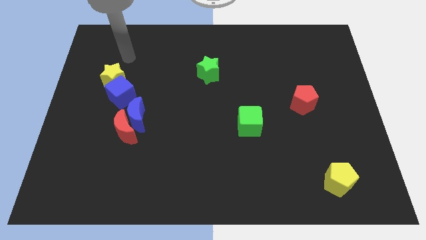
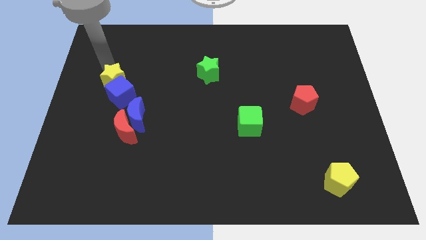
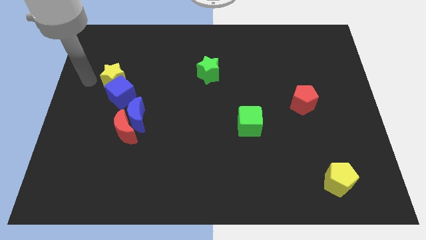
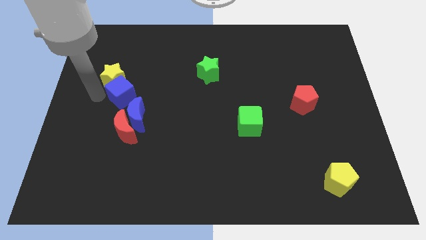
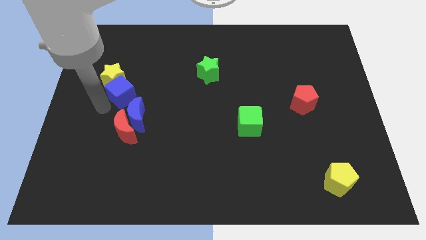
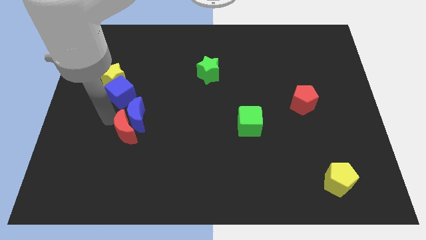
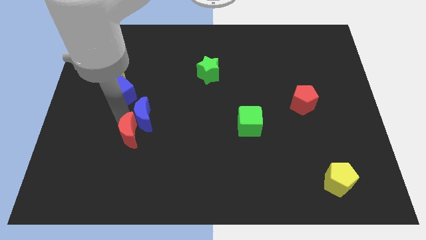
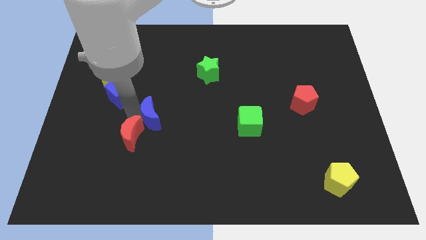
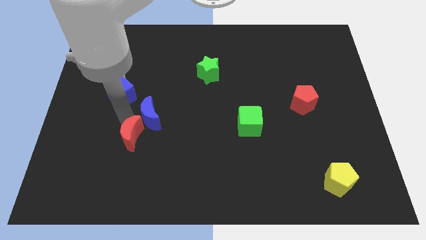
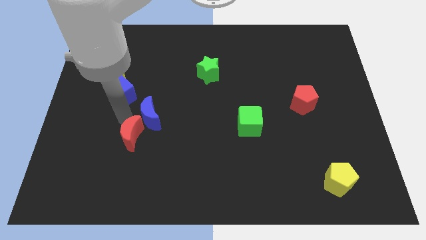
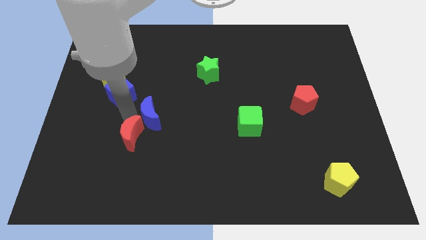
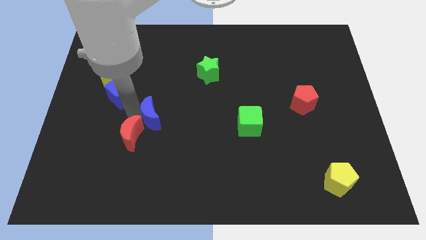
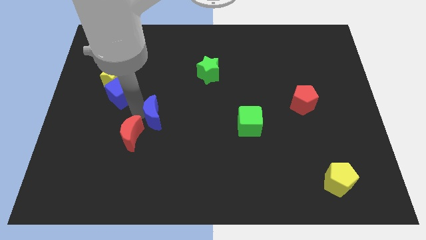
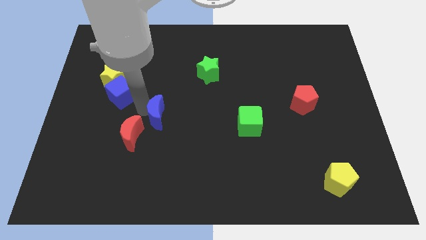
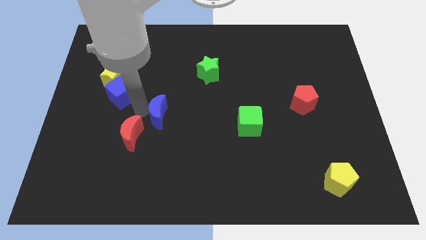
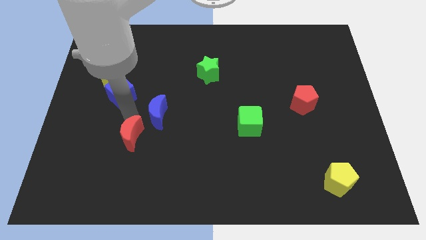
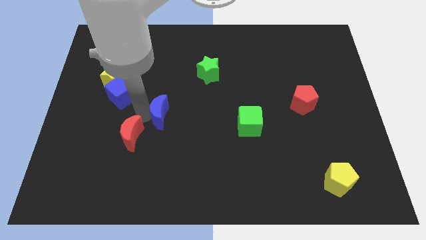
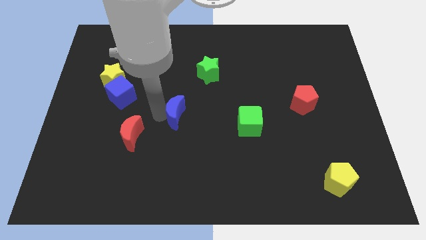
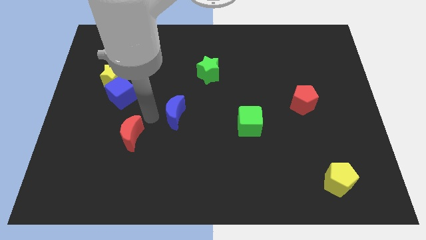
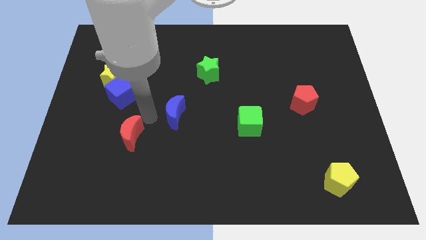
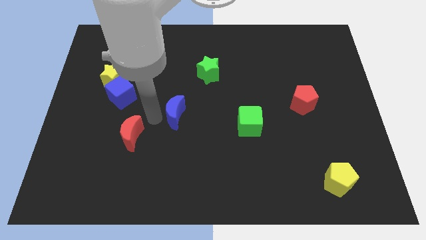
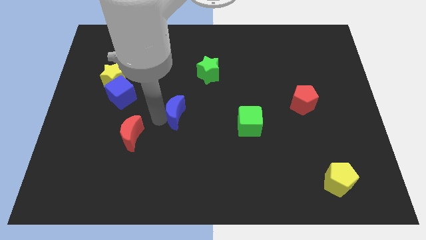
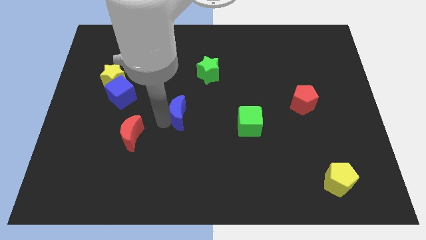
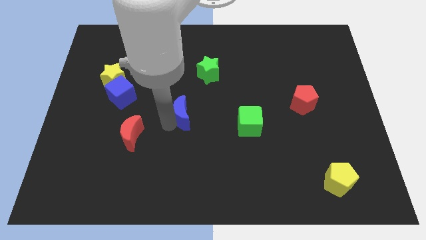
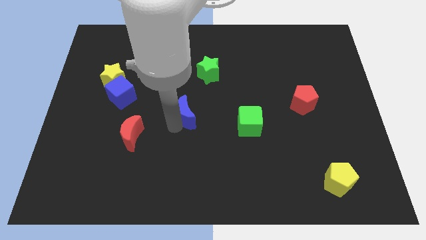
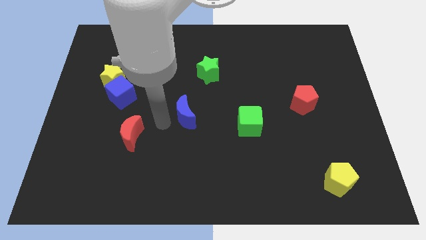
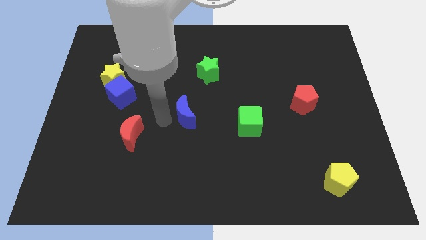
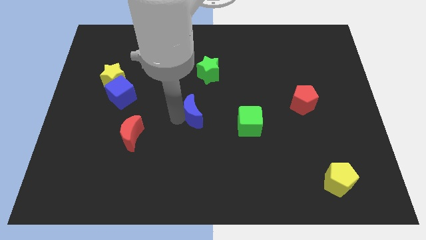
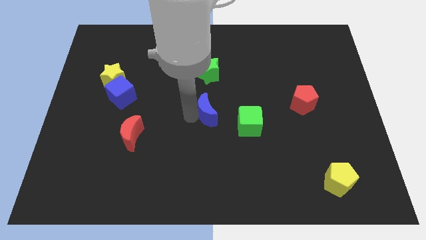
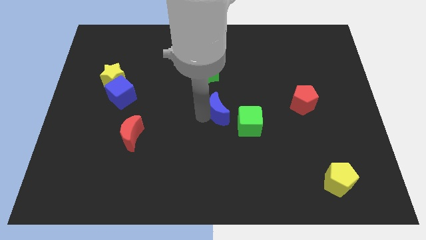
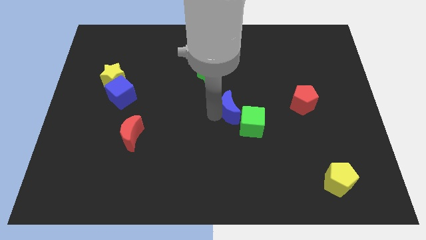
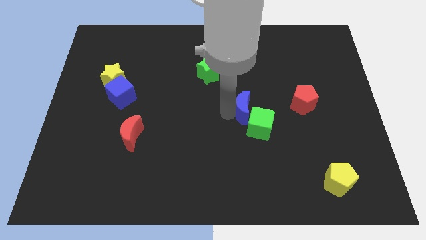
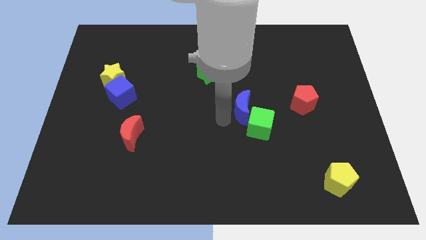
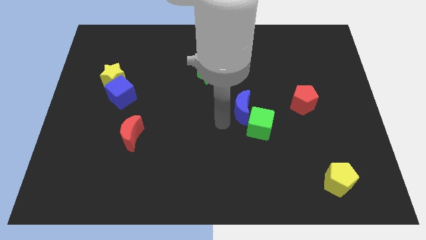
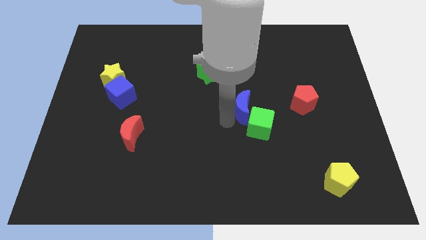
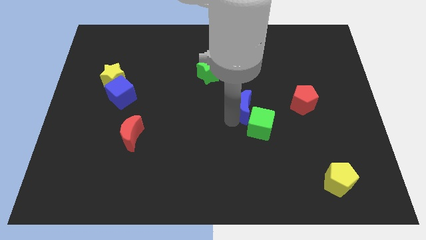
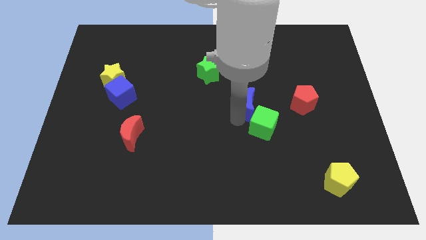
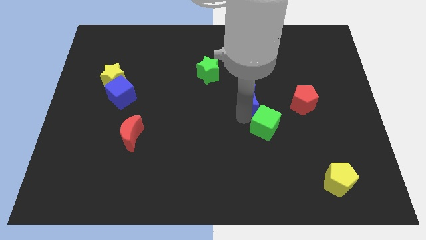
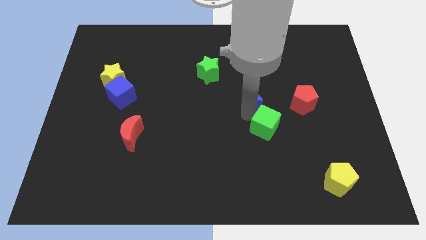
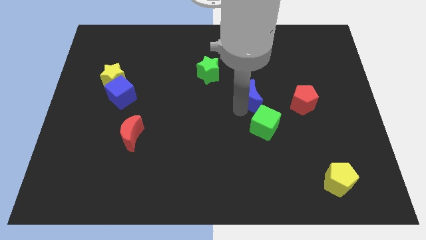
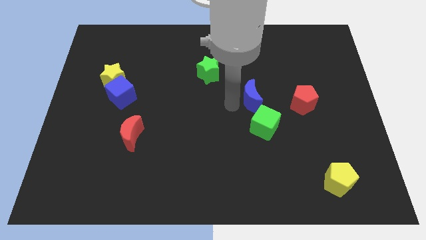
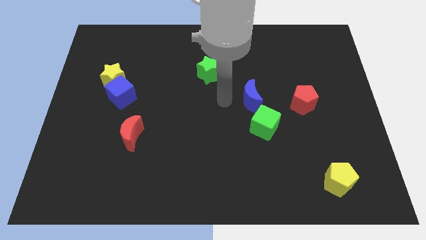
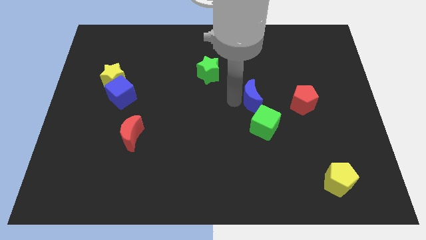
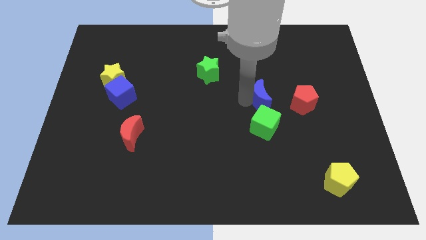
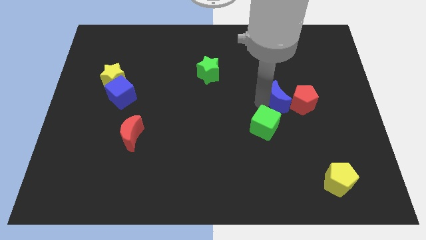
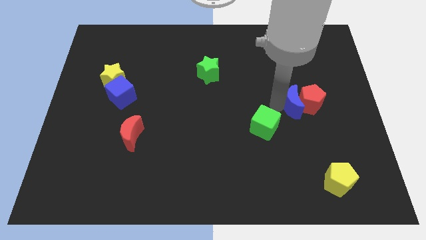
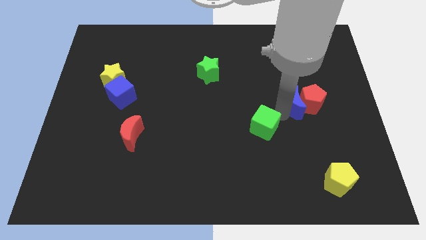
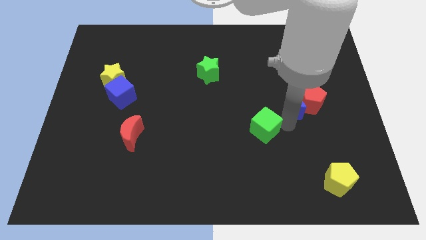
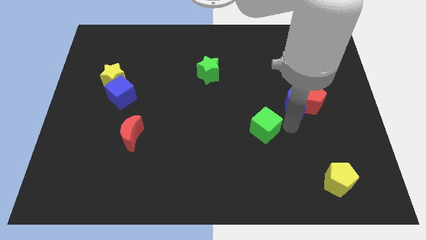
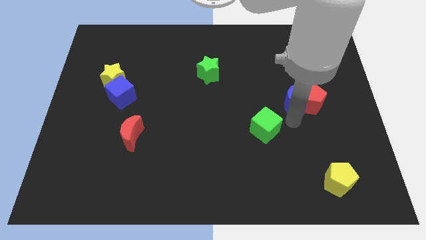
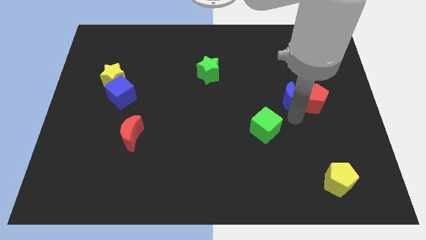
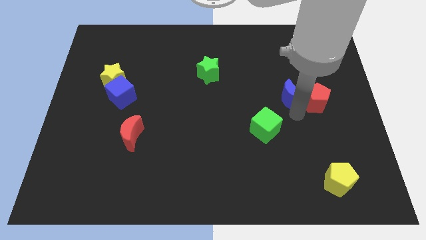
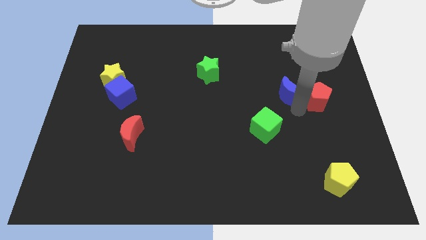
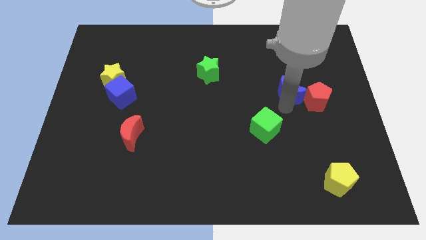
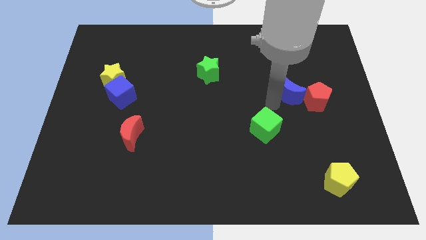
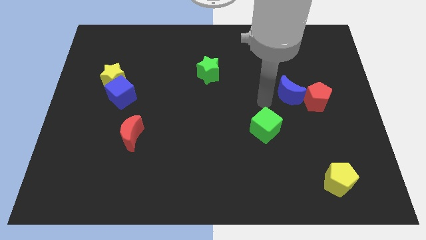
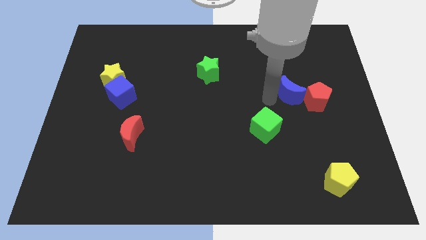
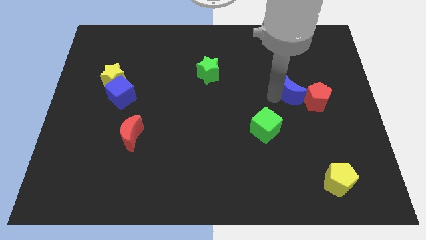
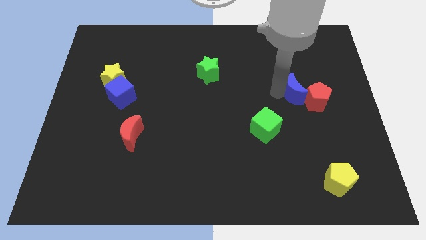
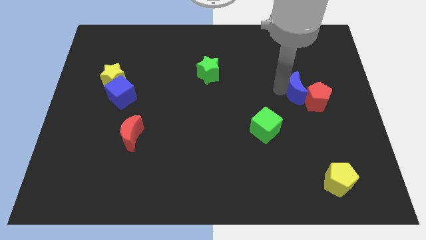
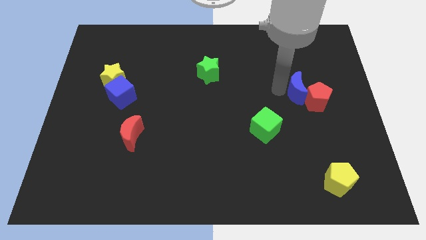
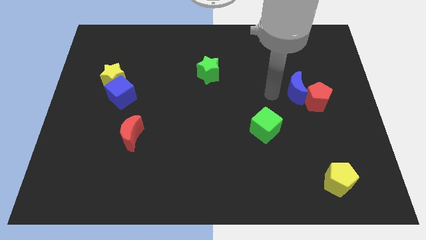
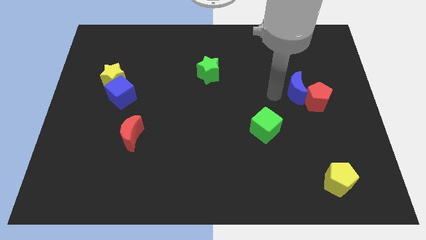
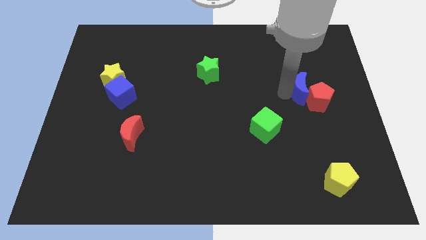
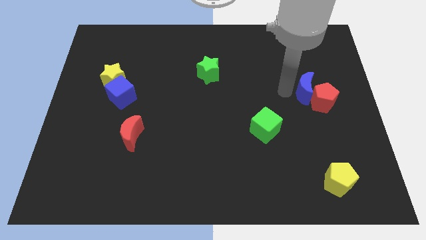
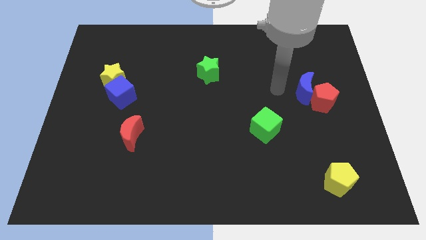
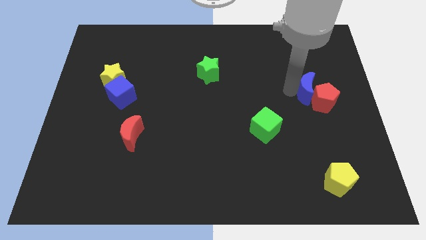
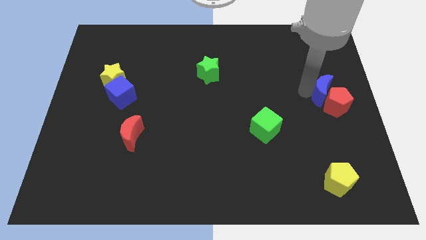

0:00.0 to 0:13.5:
move the blue moon to the right side of the board

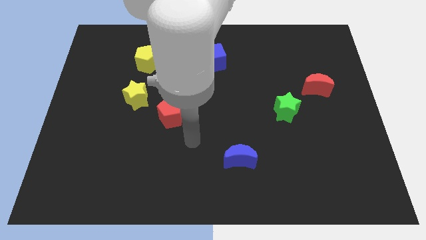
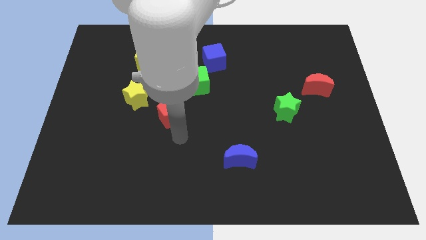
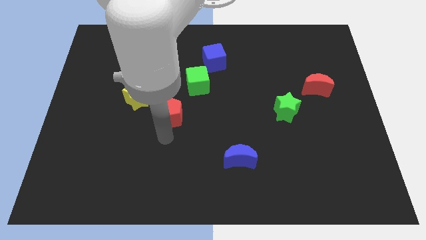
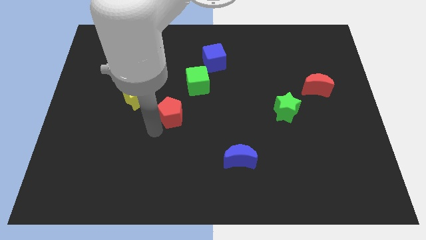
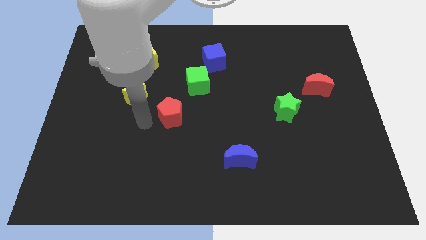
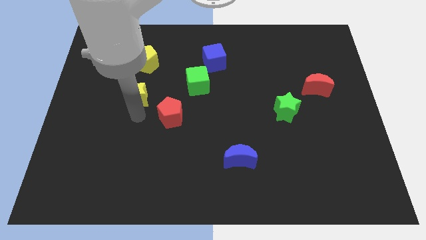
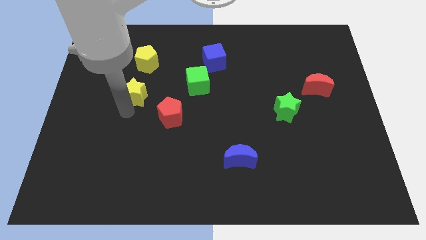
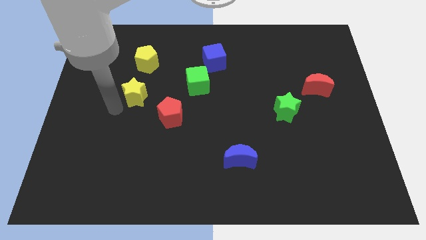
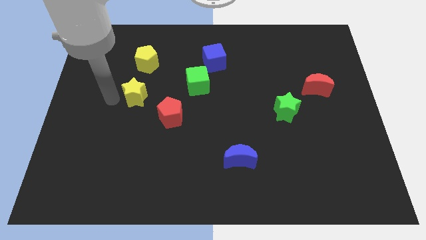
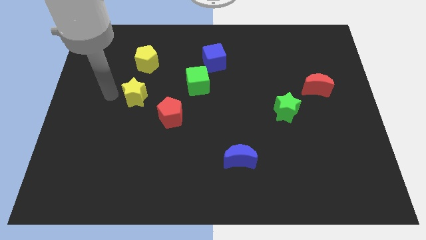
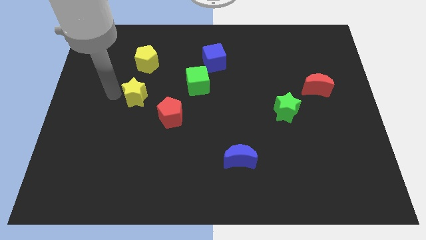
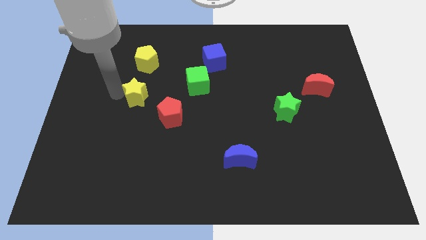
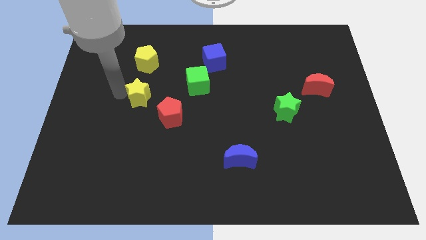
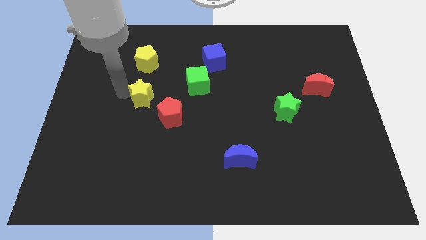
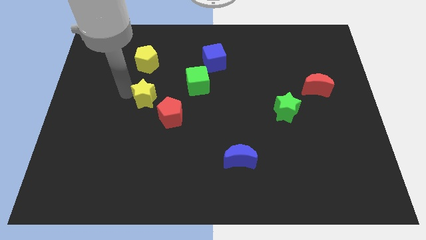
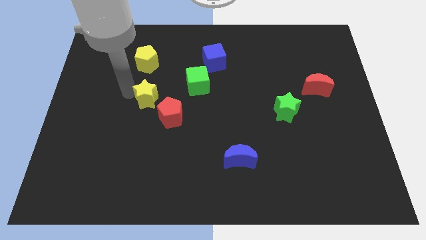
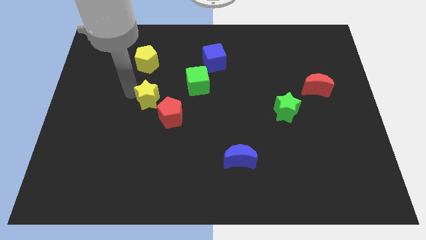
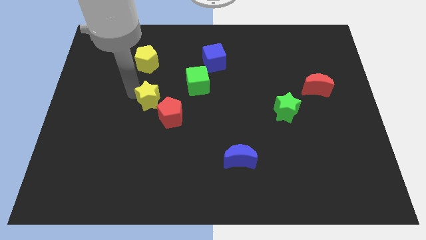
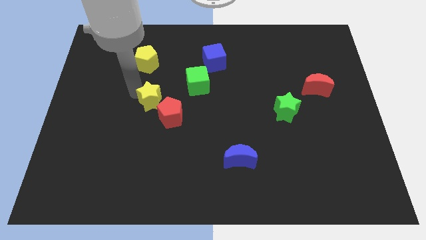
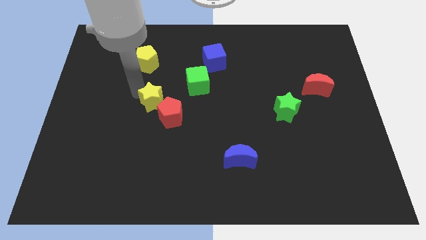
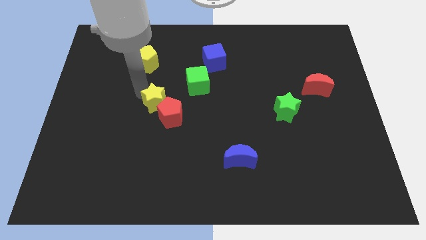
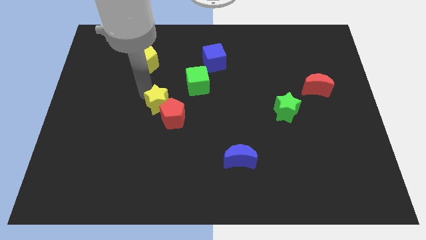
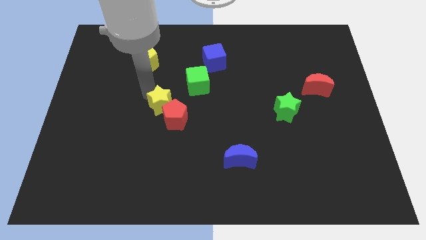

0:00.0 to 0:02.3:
push the yellow star to the middle
